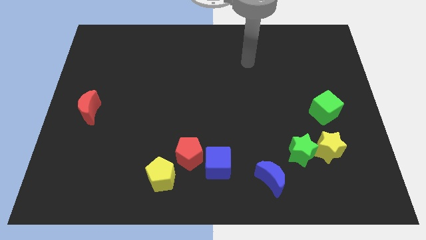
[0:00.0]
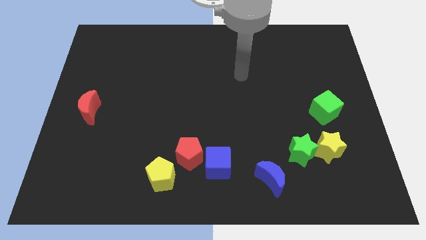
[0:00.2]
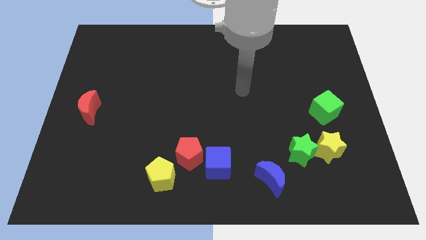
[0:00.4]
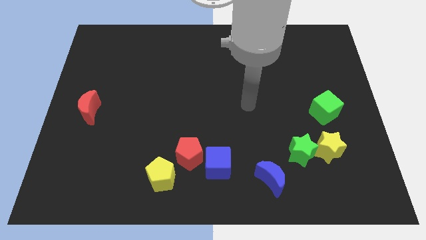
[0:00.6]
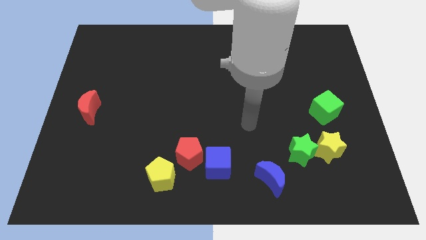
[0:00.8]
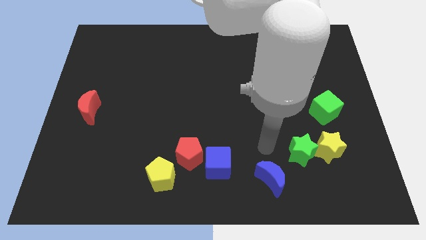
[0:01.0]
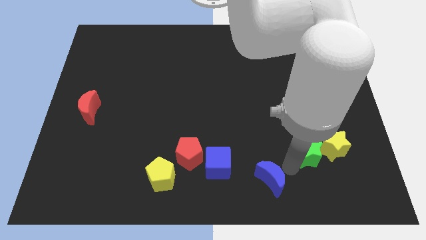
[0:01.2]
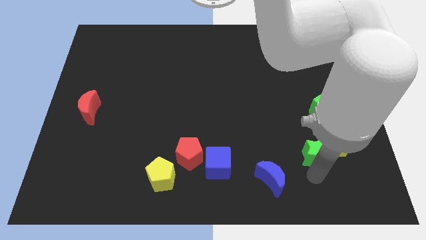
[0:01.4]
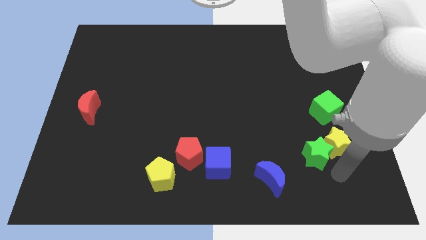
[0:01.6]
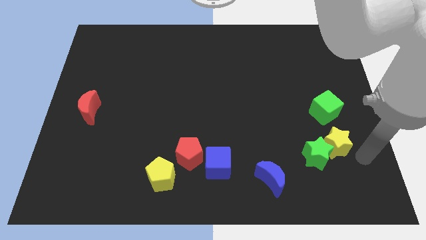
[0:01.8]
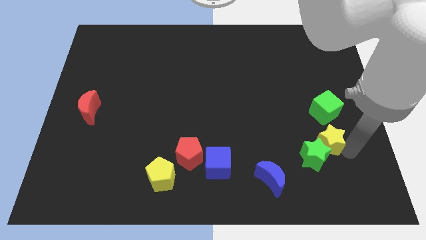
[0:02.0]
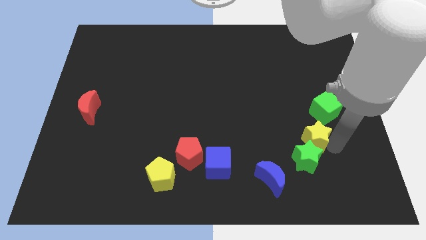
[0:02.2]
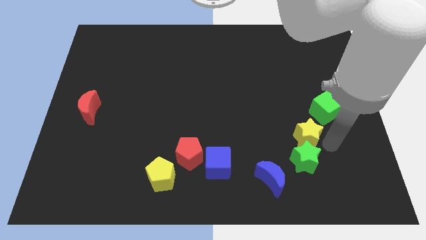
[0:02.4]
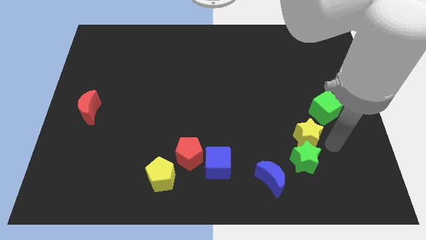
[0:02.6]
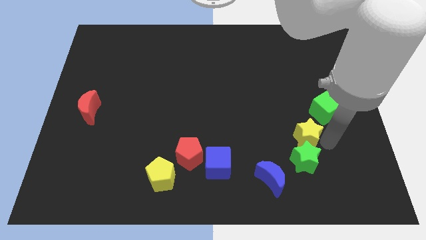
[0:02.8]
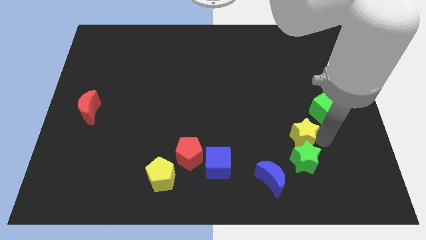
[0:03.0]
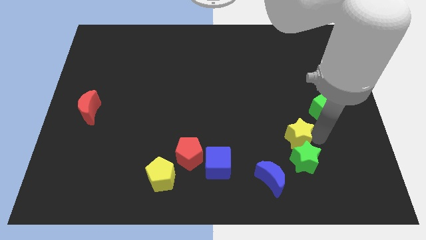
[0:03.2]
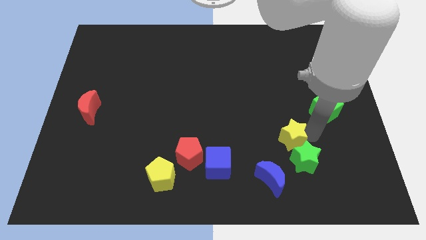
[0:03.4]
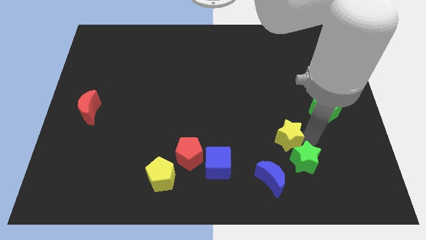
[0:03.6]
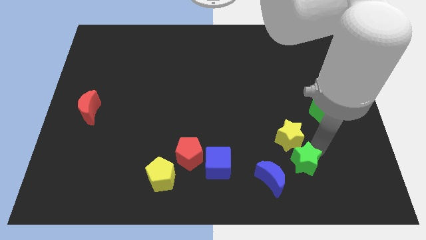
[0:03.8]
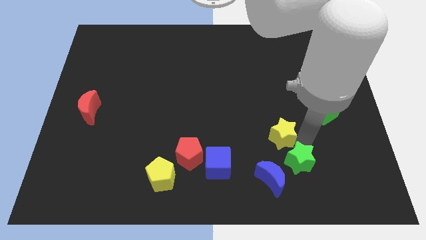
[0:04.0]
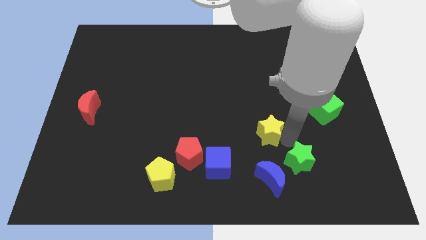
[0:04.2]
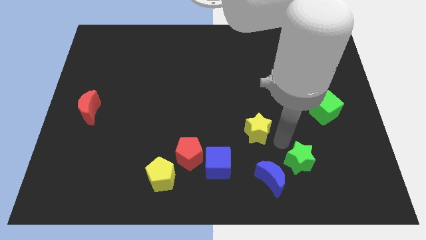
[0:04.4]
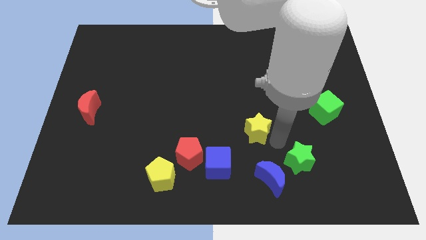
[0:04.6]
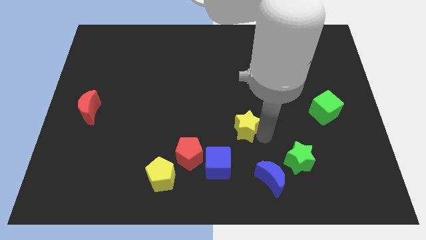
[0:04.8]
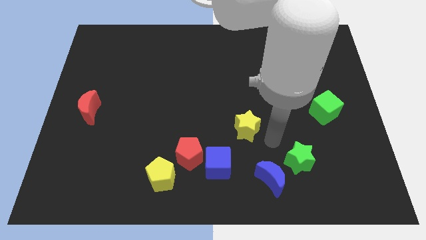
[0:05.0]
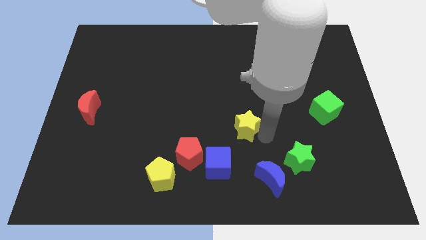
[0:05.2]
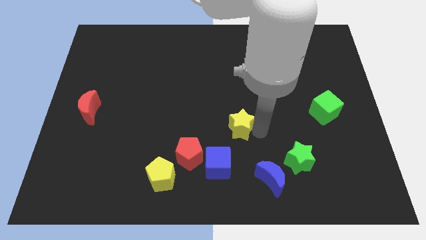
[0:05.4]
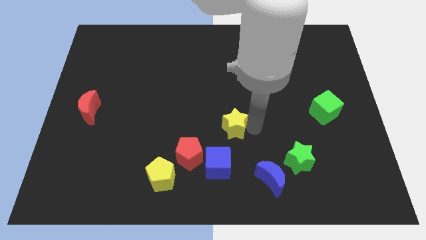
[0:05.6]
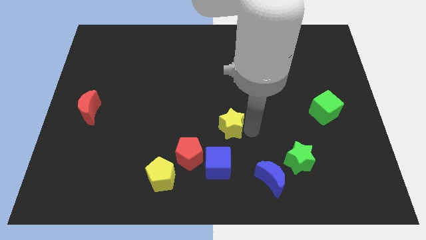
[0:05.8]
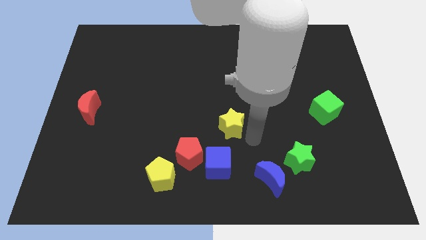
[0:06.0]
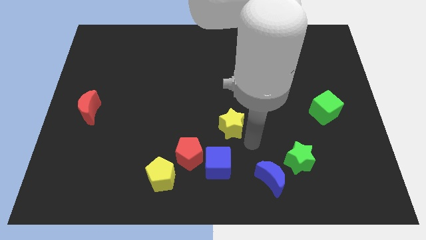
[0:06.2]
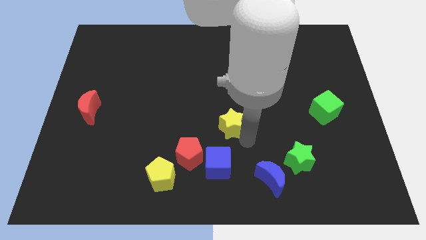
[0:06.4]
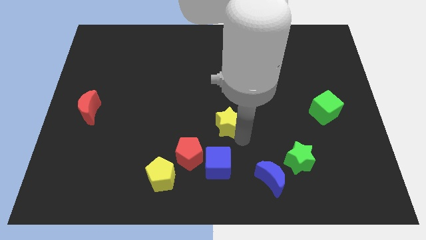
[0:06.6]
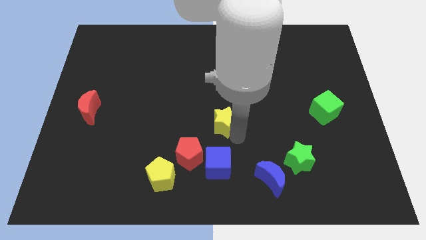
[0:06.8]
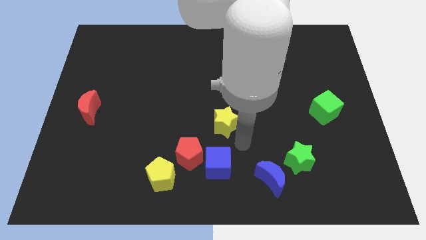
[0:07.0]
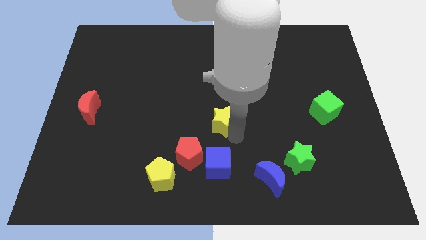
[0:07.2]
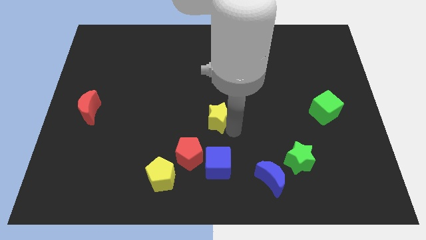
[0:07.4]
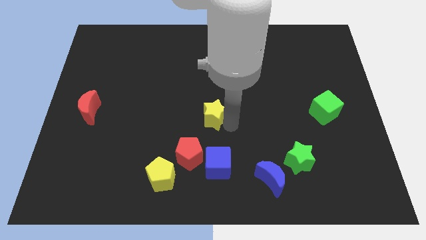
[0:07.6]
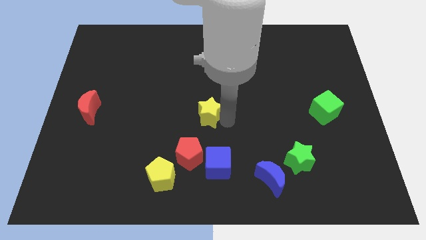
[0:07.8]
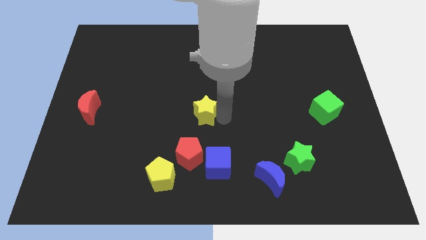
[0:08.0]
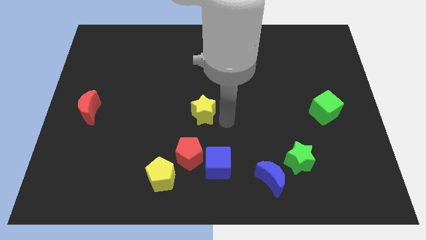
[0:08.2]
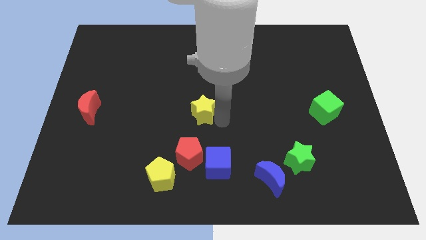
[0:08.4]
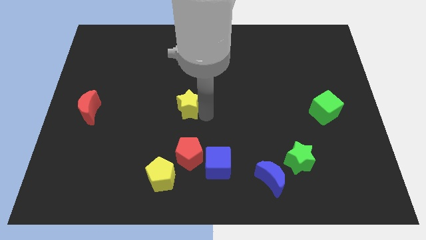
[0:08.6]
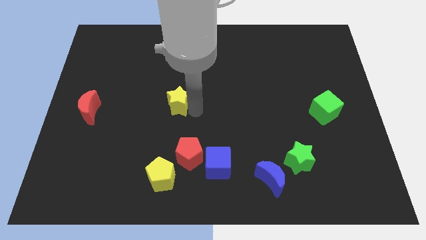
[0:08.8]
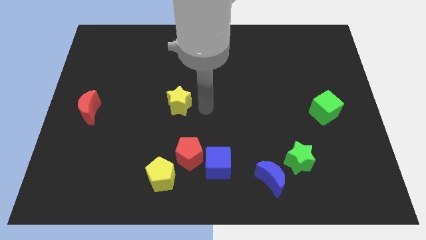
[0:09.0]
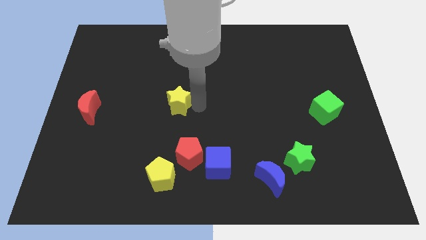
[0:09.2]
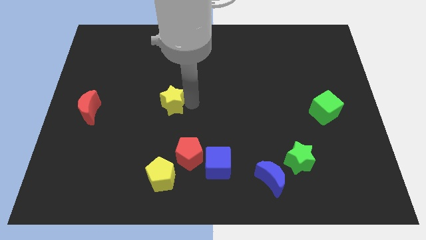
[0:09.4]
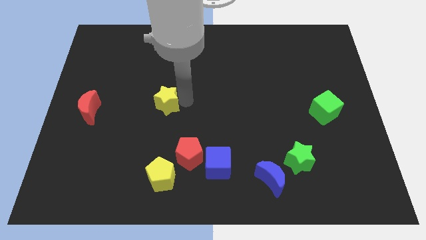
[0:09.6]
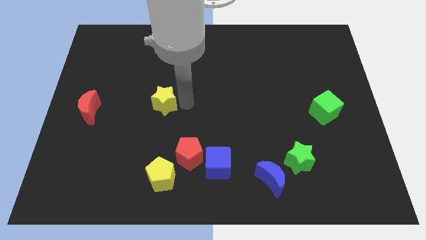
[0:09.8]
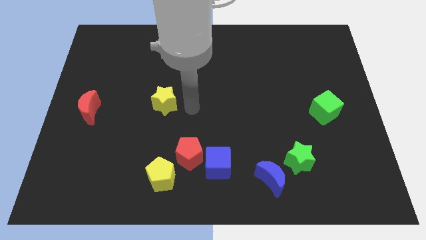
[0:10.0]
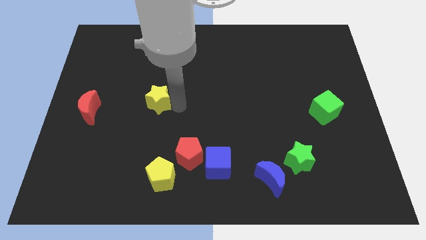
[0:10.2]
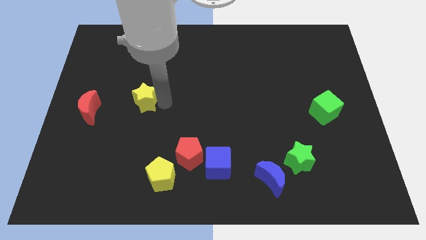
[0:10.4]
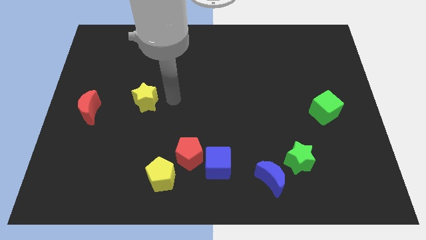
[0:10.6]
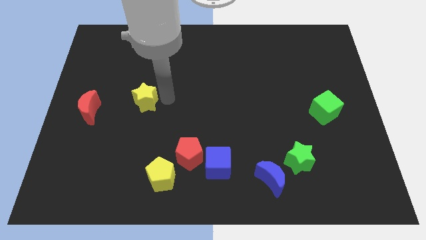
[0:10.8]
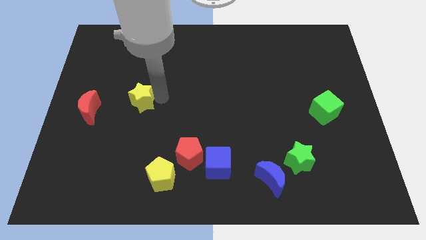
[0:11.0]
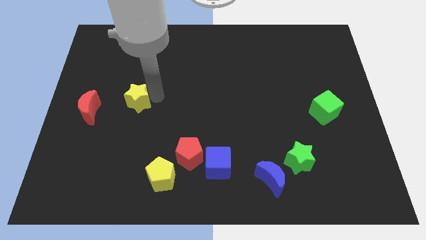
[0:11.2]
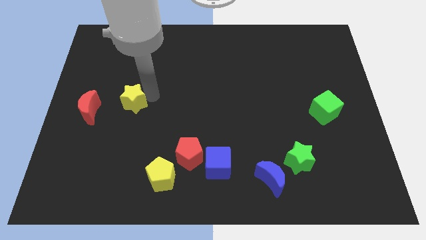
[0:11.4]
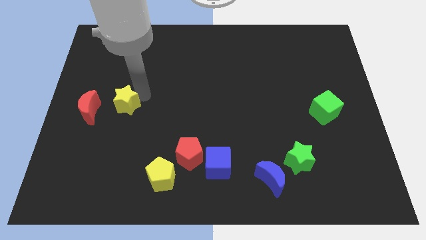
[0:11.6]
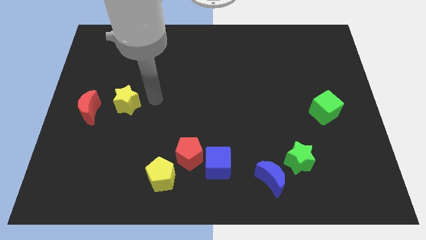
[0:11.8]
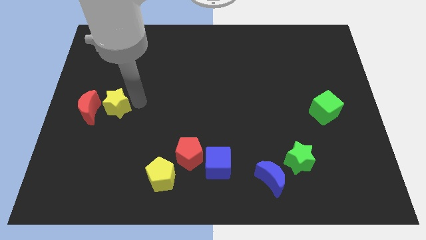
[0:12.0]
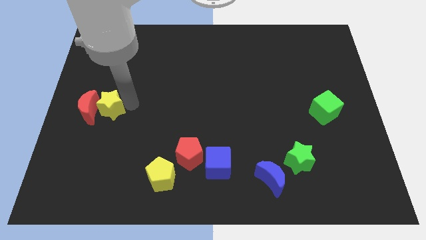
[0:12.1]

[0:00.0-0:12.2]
put the yellow star close to the red moon

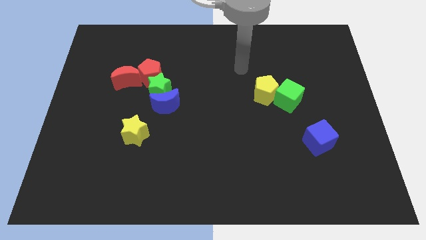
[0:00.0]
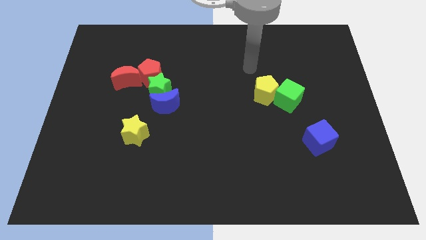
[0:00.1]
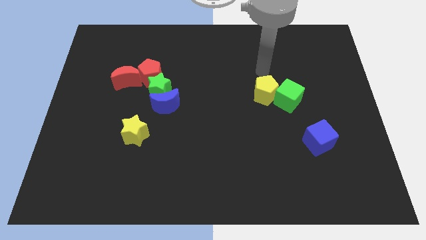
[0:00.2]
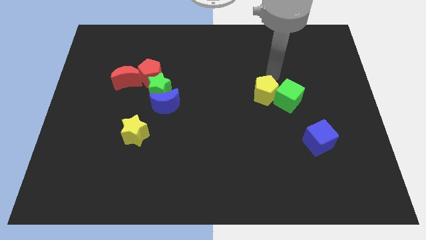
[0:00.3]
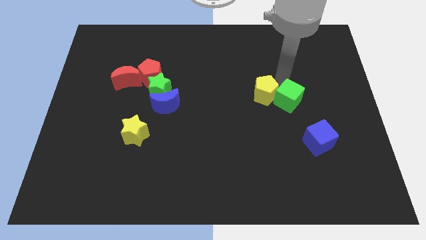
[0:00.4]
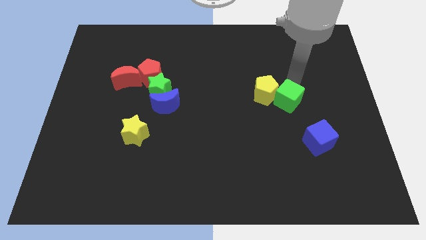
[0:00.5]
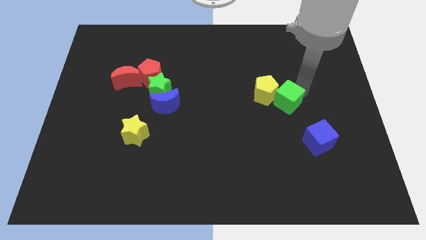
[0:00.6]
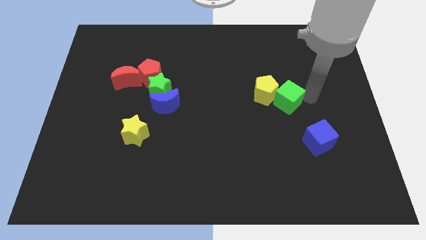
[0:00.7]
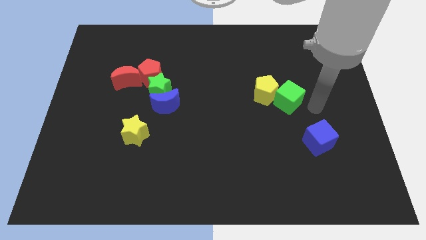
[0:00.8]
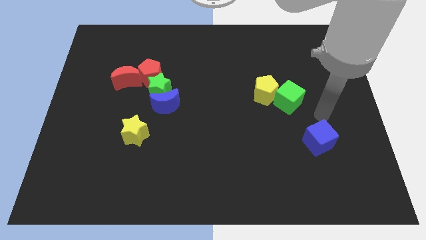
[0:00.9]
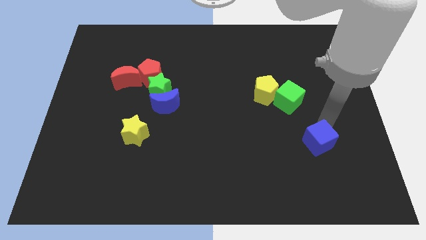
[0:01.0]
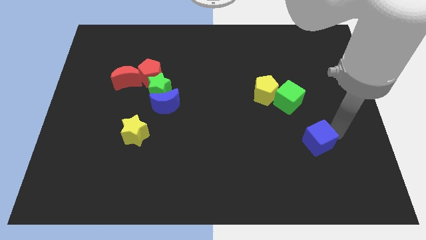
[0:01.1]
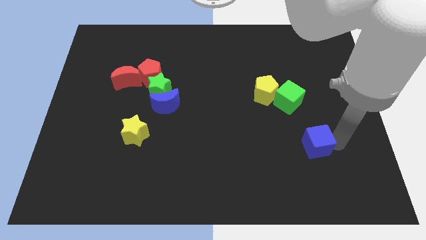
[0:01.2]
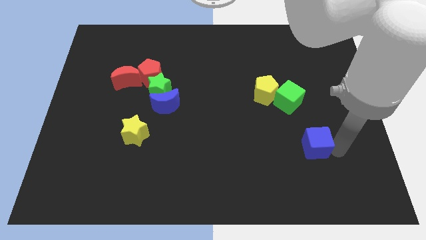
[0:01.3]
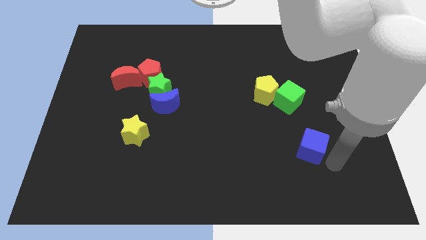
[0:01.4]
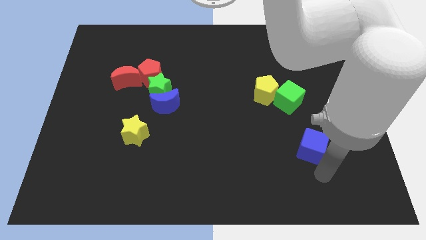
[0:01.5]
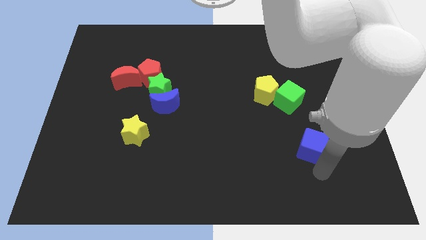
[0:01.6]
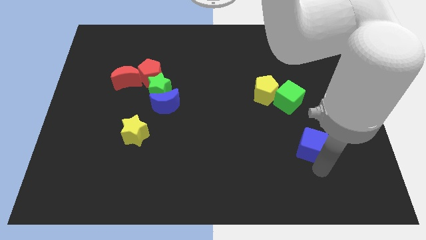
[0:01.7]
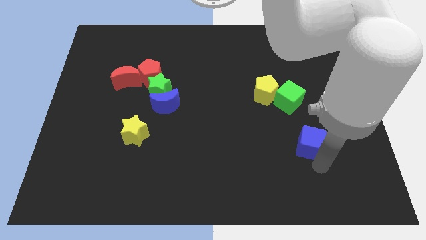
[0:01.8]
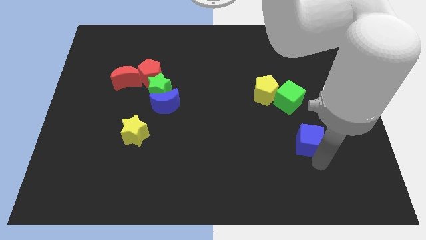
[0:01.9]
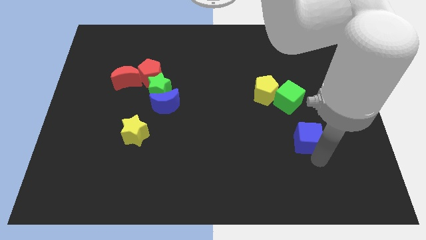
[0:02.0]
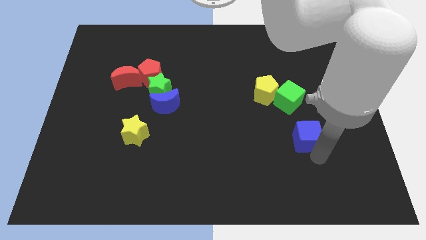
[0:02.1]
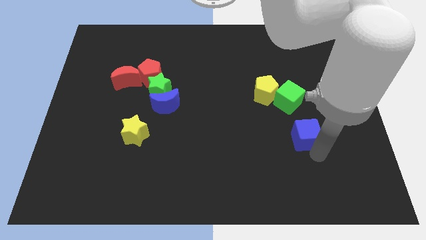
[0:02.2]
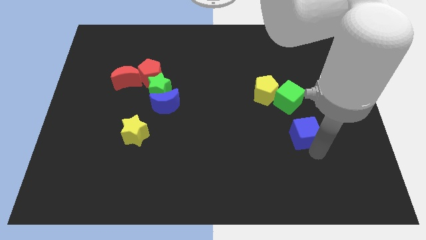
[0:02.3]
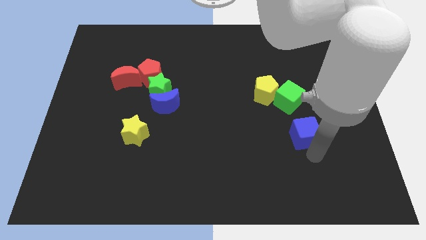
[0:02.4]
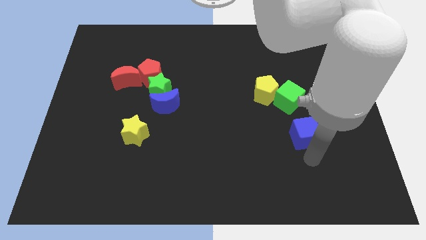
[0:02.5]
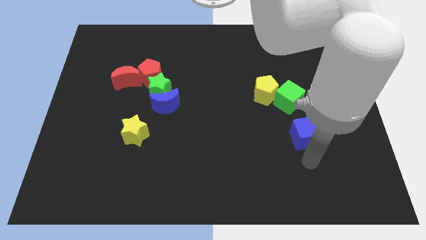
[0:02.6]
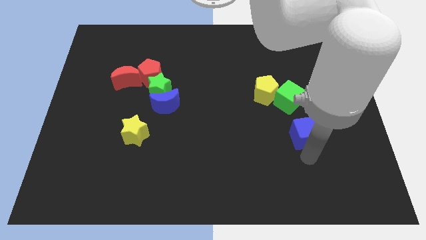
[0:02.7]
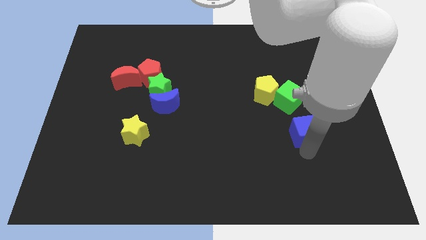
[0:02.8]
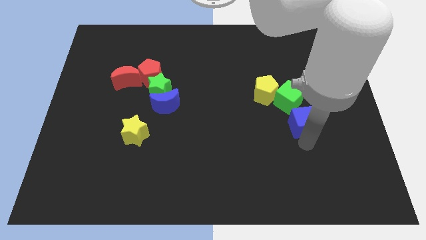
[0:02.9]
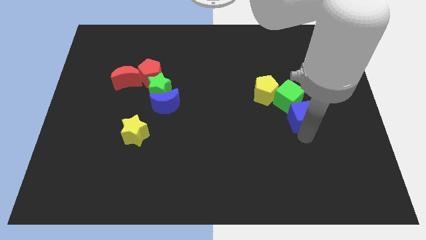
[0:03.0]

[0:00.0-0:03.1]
push the blue cube next to the green cube
